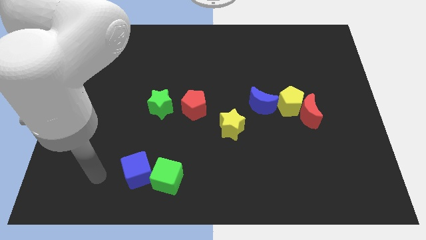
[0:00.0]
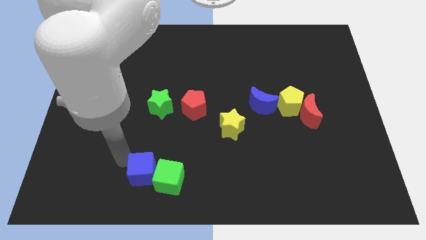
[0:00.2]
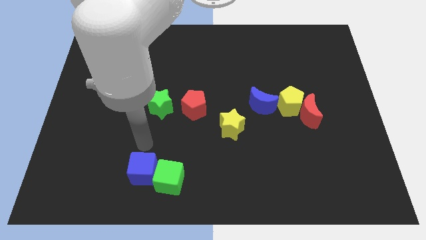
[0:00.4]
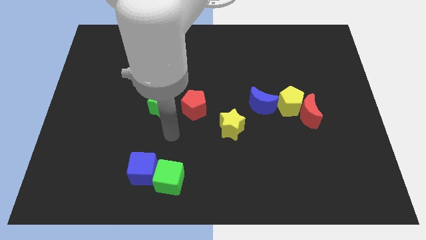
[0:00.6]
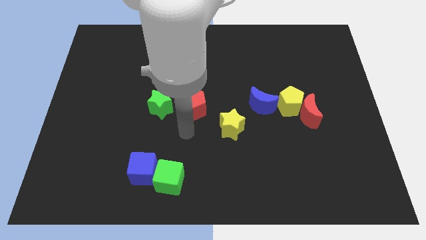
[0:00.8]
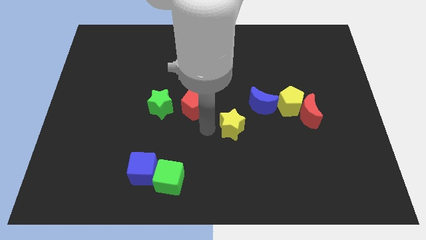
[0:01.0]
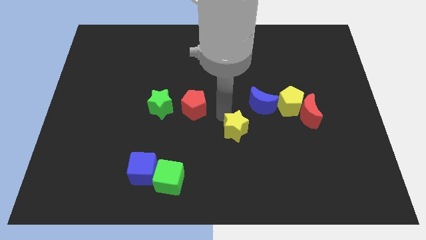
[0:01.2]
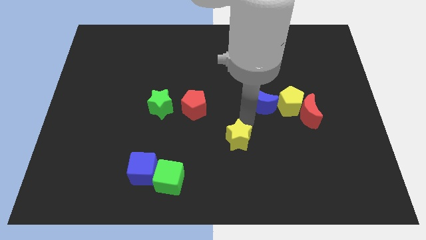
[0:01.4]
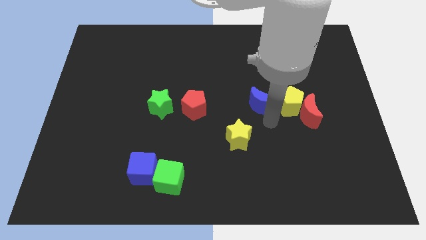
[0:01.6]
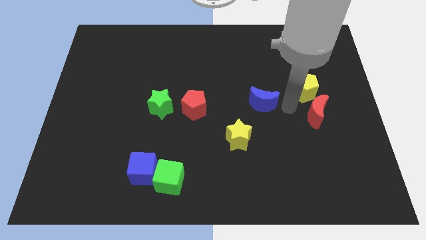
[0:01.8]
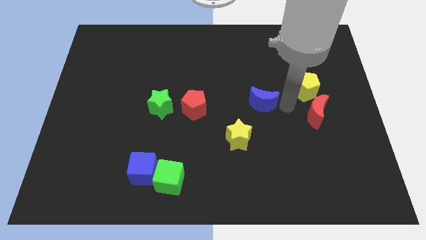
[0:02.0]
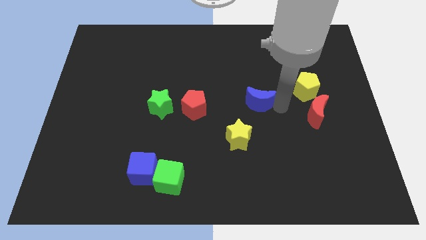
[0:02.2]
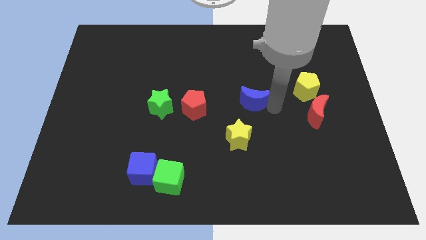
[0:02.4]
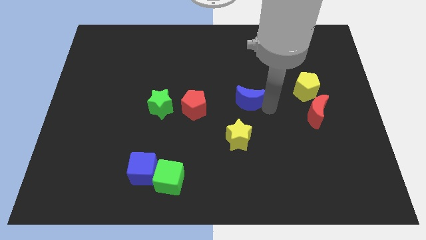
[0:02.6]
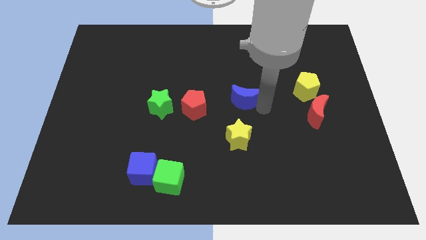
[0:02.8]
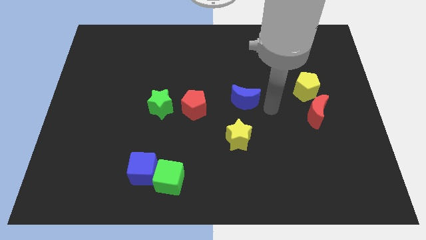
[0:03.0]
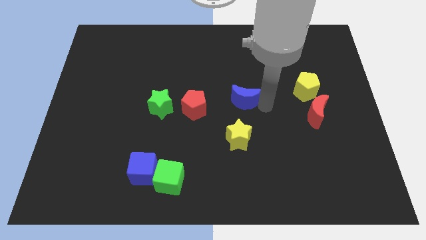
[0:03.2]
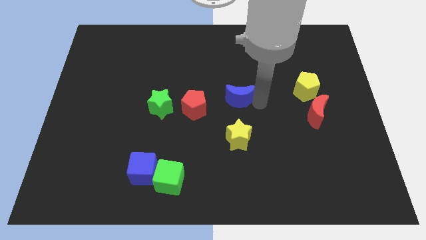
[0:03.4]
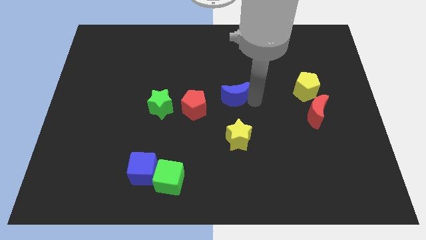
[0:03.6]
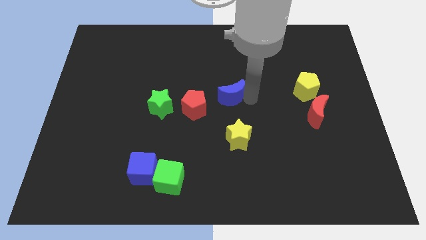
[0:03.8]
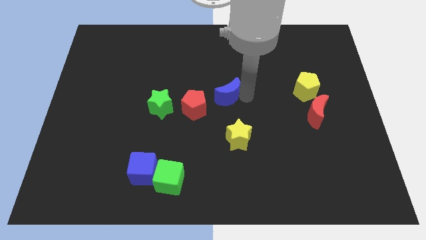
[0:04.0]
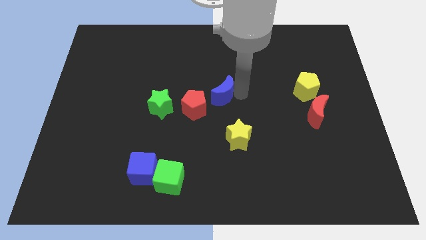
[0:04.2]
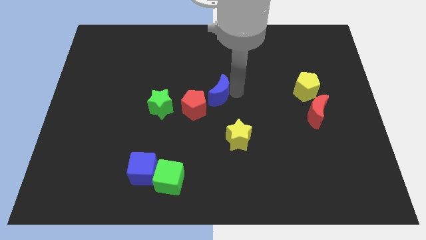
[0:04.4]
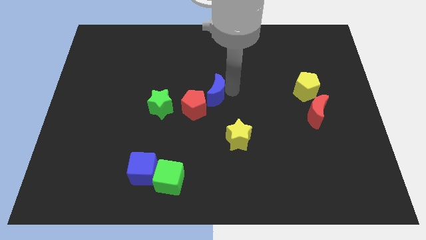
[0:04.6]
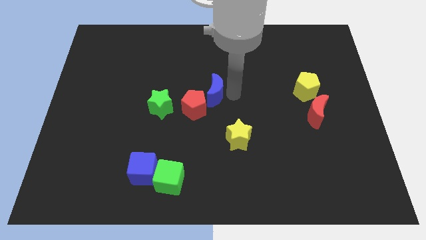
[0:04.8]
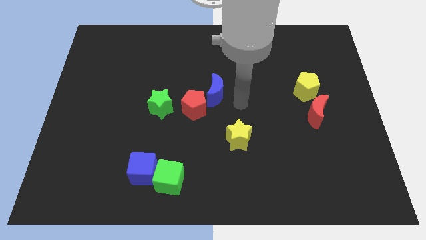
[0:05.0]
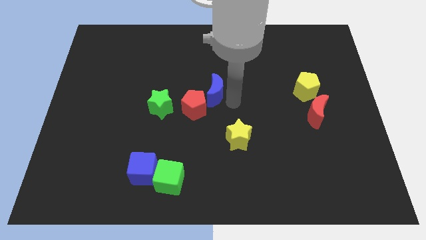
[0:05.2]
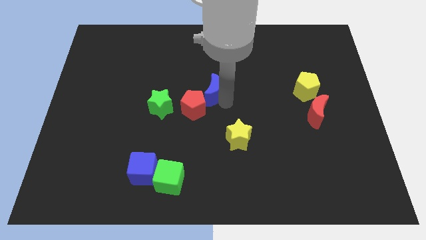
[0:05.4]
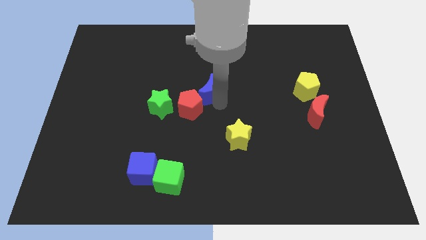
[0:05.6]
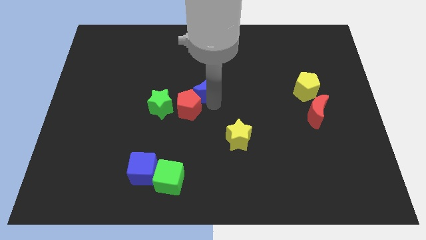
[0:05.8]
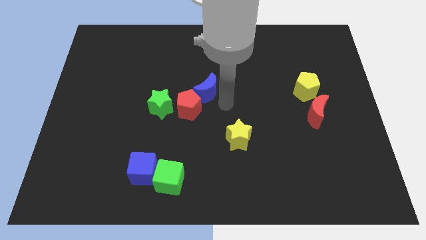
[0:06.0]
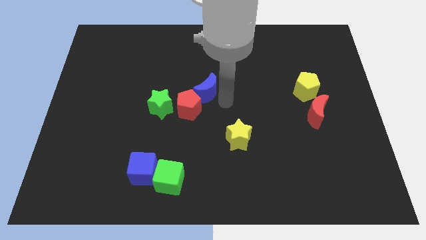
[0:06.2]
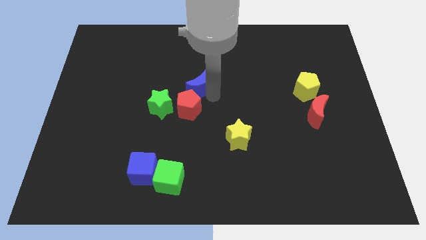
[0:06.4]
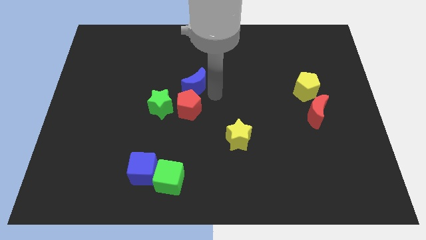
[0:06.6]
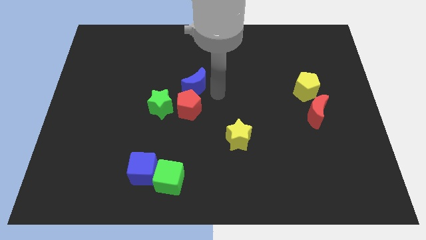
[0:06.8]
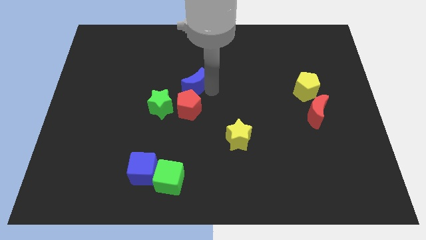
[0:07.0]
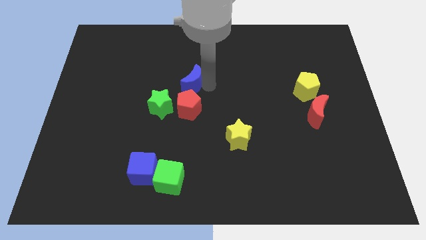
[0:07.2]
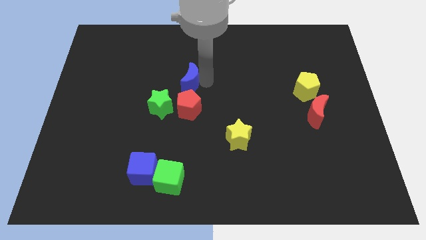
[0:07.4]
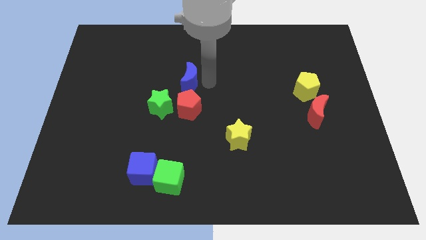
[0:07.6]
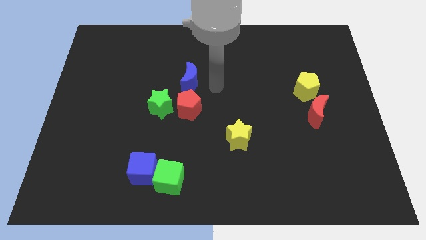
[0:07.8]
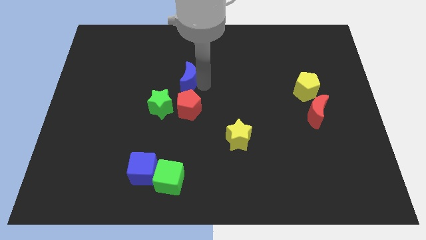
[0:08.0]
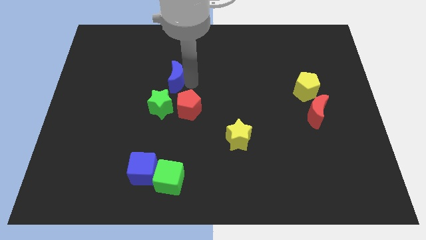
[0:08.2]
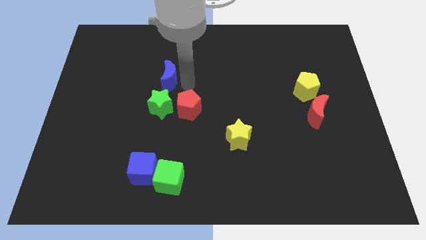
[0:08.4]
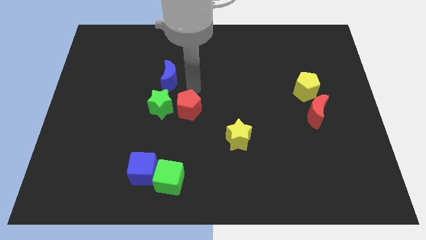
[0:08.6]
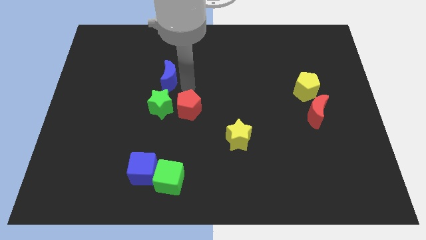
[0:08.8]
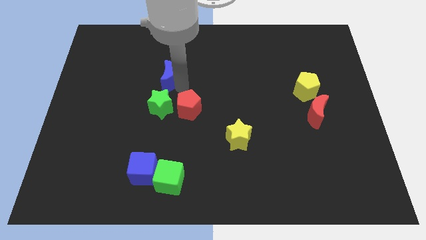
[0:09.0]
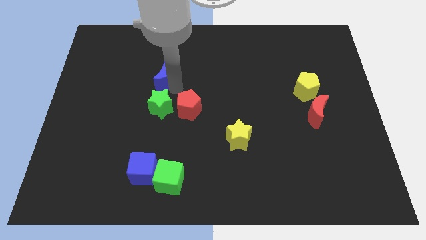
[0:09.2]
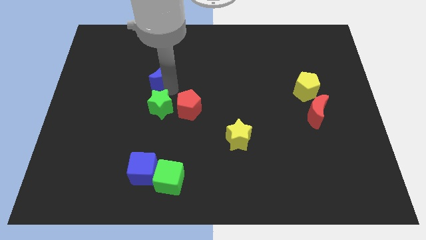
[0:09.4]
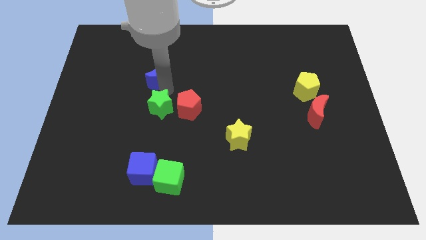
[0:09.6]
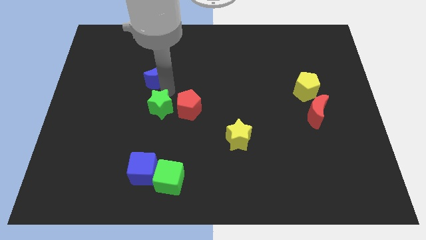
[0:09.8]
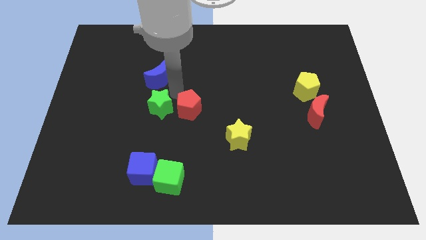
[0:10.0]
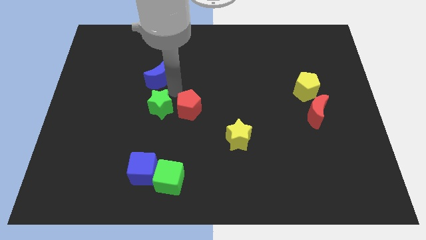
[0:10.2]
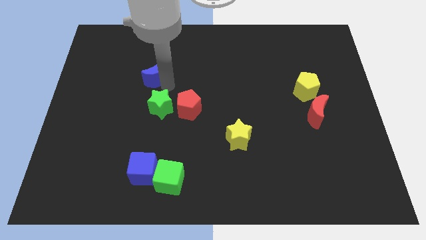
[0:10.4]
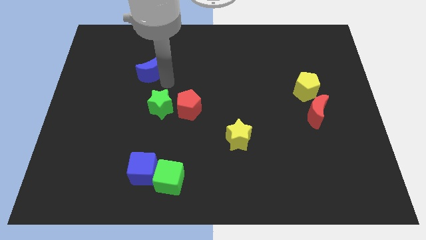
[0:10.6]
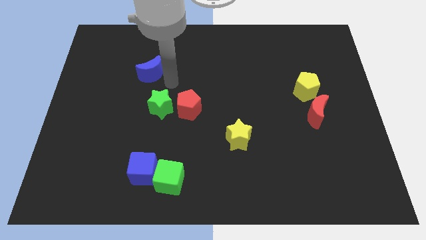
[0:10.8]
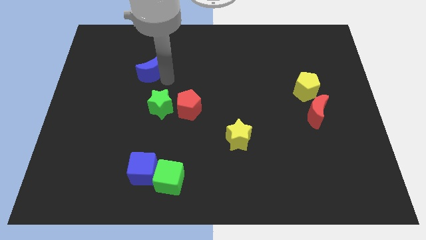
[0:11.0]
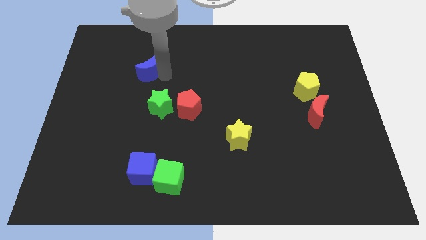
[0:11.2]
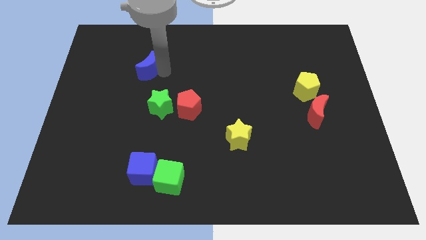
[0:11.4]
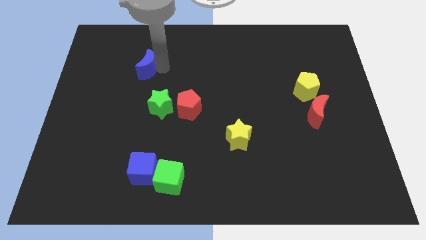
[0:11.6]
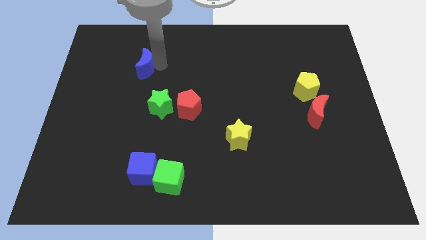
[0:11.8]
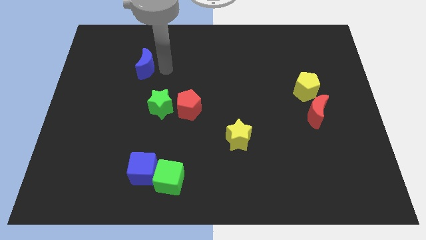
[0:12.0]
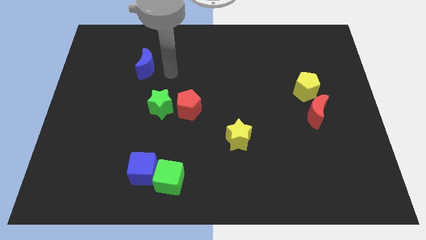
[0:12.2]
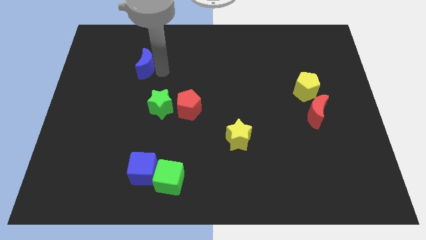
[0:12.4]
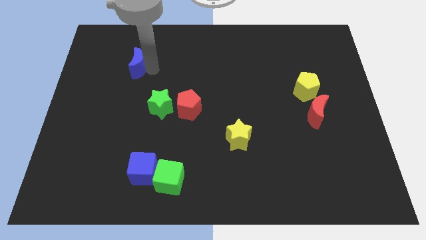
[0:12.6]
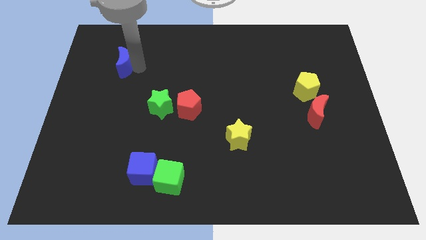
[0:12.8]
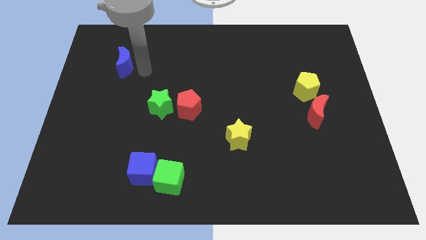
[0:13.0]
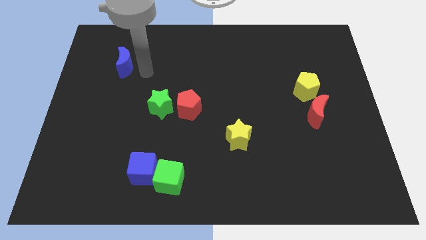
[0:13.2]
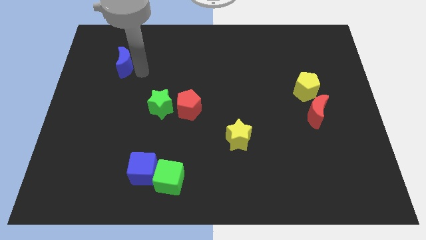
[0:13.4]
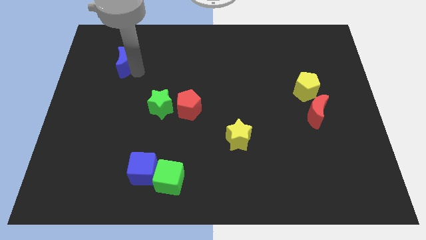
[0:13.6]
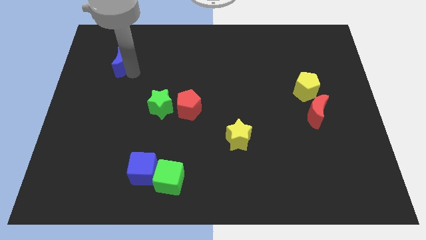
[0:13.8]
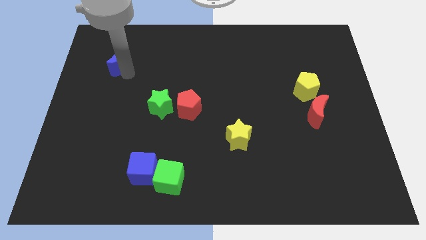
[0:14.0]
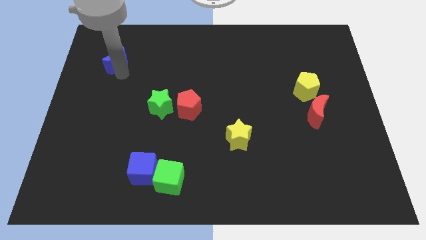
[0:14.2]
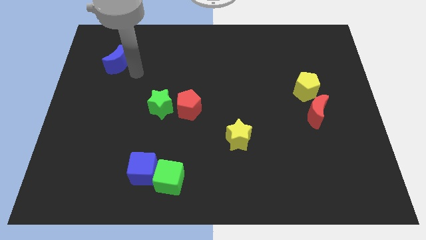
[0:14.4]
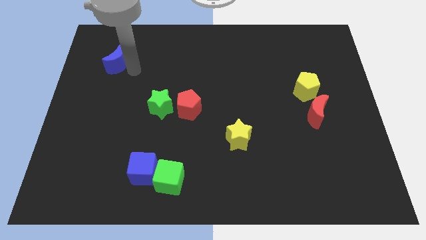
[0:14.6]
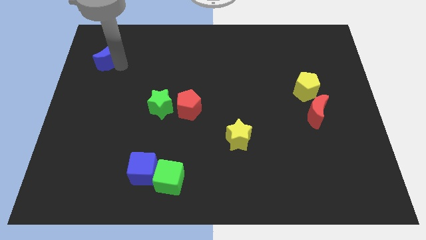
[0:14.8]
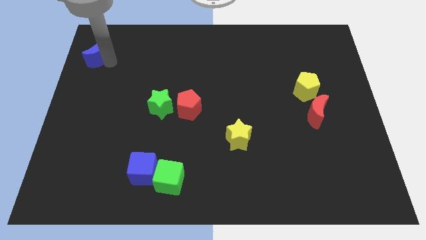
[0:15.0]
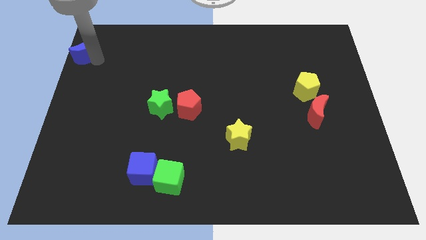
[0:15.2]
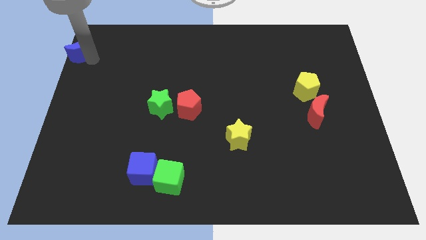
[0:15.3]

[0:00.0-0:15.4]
slide the blue moon to the top left
